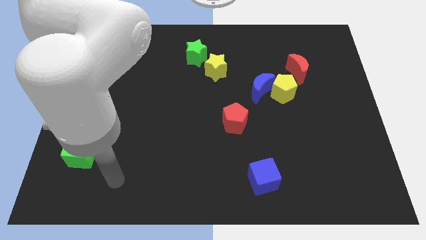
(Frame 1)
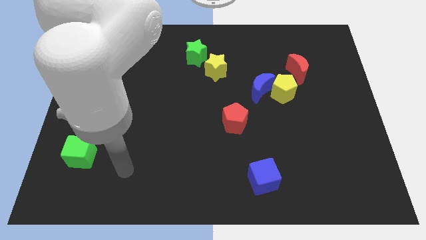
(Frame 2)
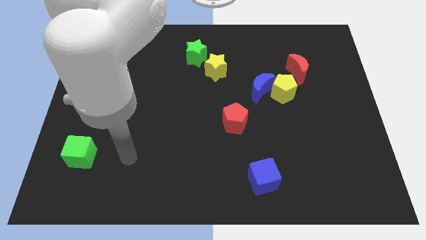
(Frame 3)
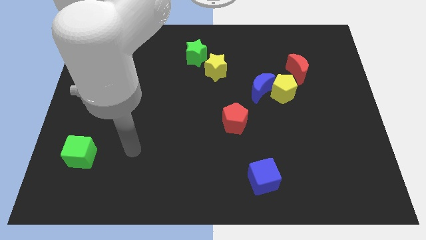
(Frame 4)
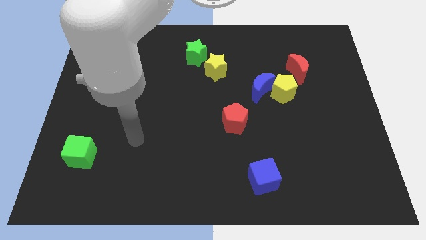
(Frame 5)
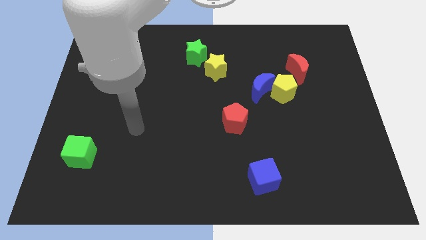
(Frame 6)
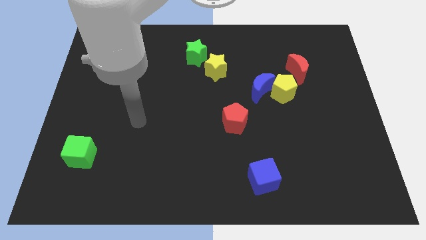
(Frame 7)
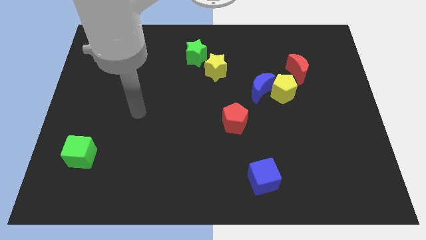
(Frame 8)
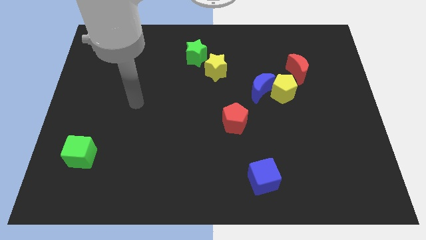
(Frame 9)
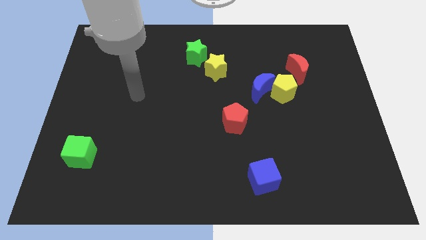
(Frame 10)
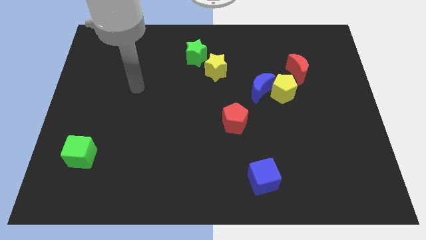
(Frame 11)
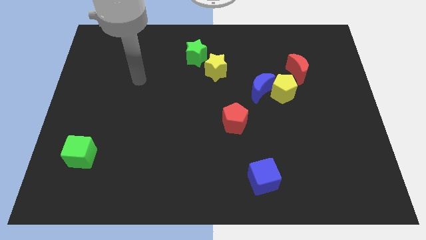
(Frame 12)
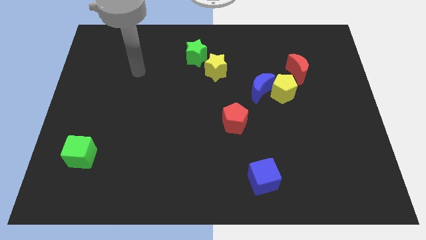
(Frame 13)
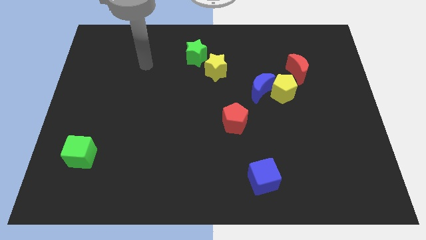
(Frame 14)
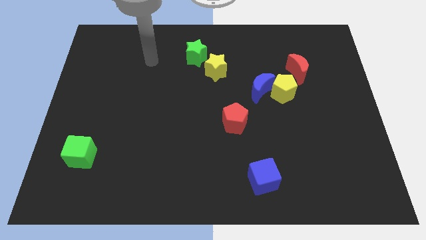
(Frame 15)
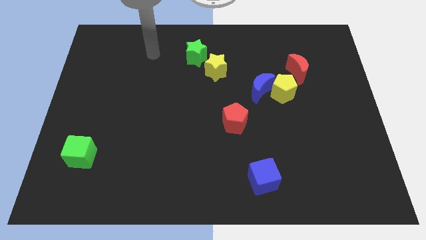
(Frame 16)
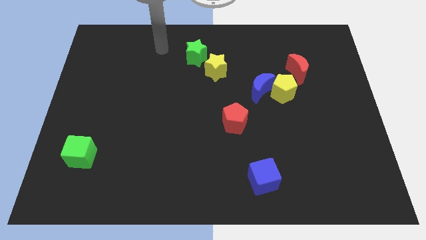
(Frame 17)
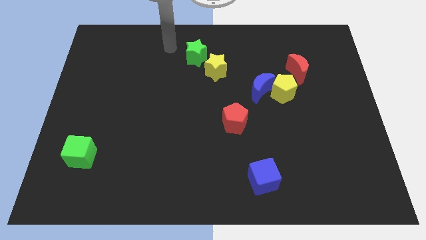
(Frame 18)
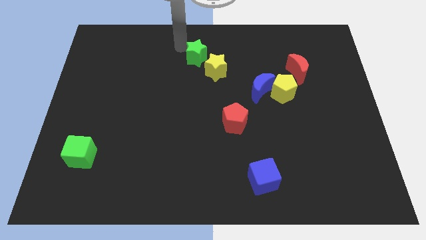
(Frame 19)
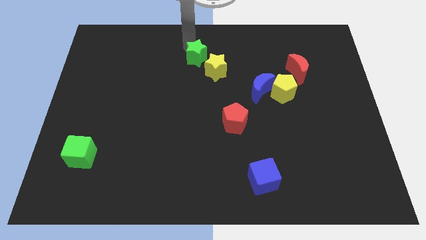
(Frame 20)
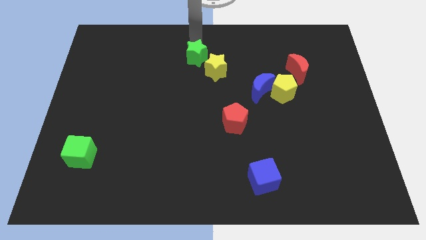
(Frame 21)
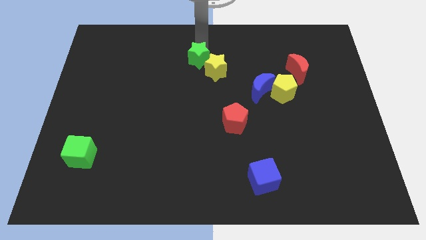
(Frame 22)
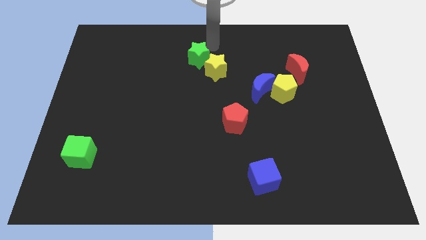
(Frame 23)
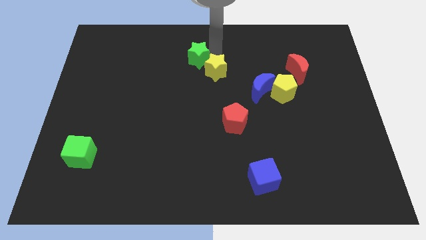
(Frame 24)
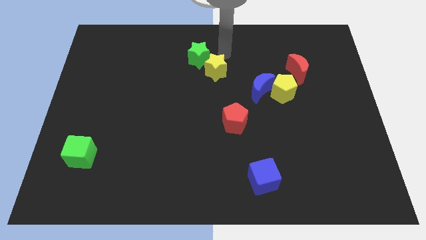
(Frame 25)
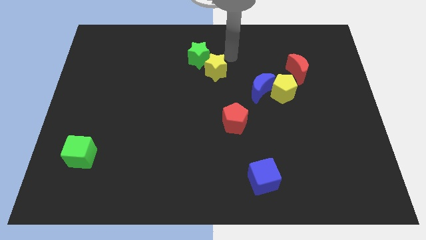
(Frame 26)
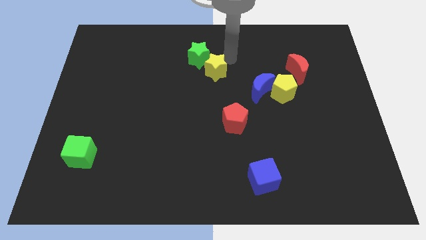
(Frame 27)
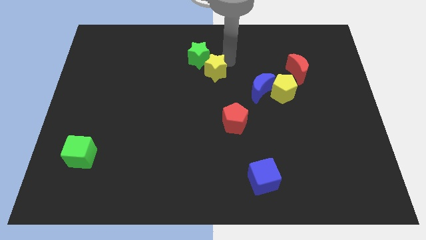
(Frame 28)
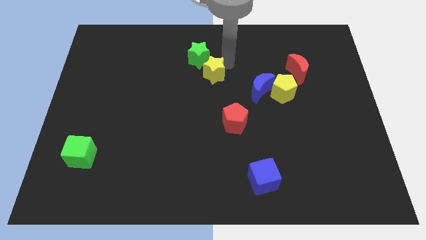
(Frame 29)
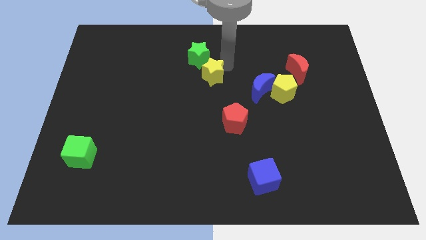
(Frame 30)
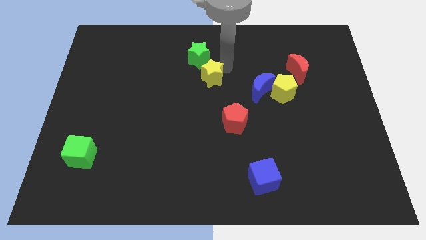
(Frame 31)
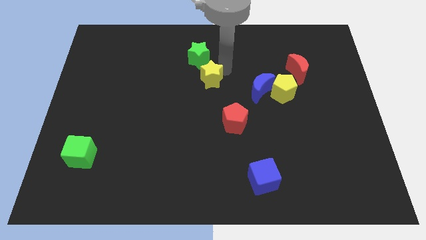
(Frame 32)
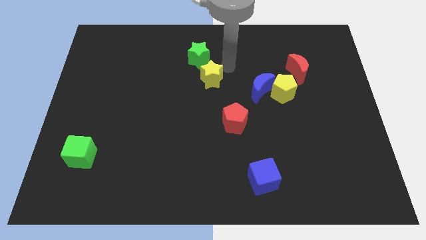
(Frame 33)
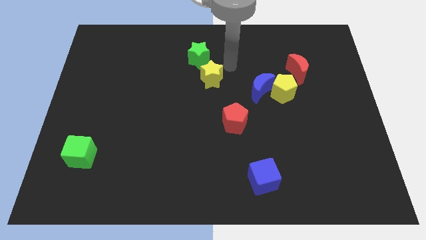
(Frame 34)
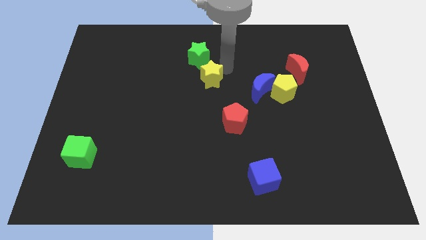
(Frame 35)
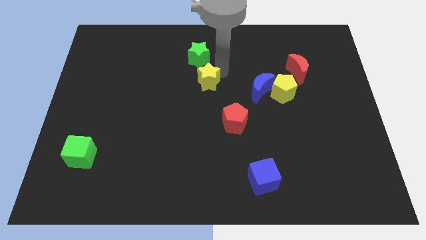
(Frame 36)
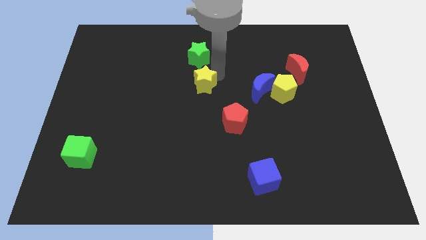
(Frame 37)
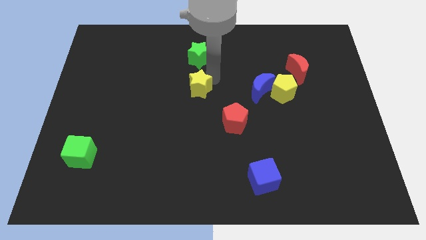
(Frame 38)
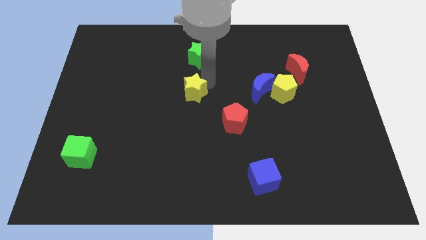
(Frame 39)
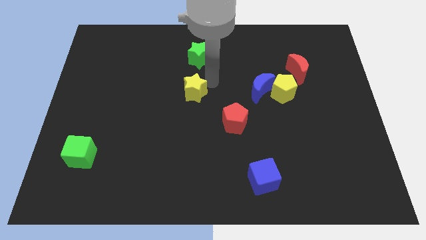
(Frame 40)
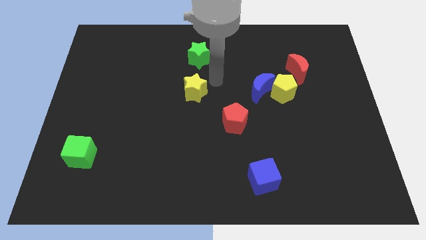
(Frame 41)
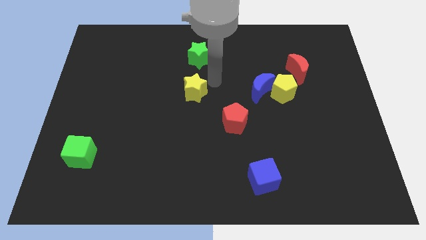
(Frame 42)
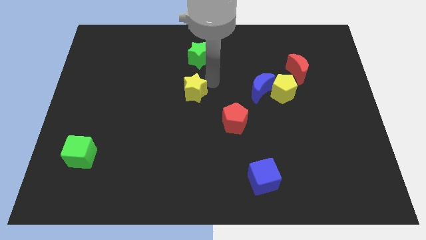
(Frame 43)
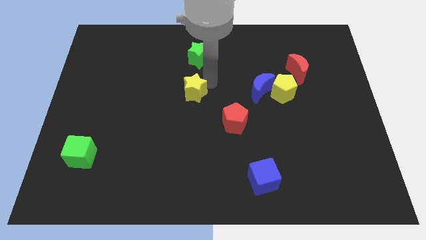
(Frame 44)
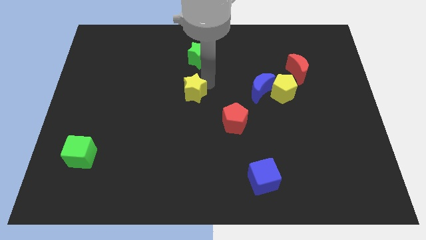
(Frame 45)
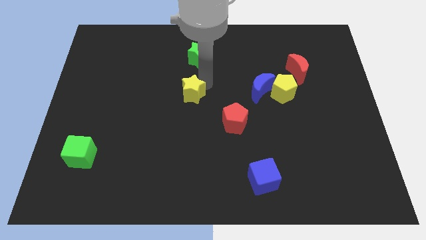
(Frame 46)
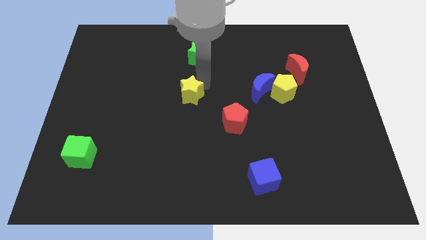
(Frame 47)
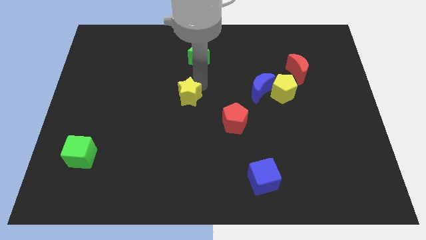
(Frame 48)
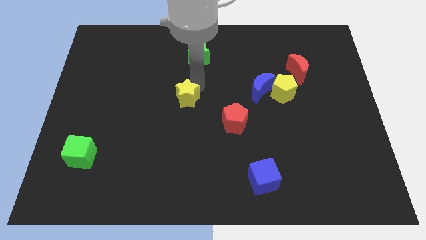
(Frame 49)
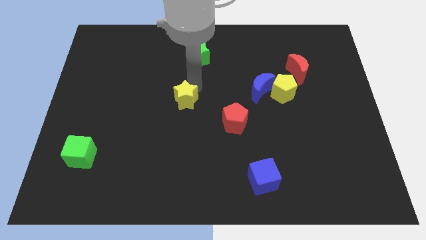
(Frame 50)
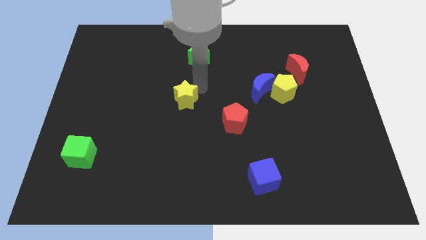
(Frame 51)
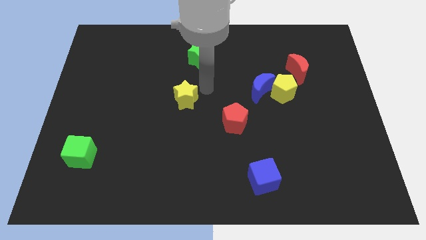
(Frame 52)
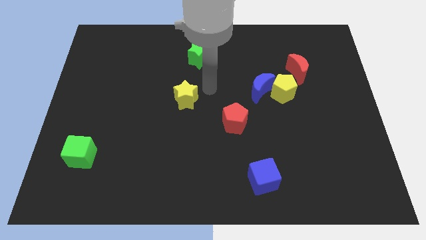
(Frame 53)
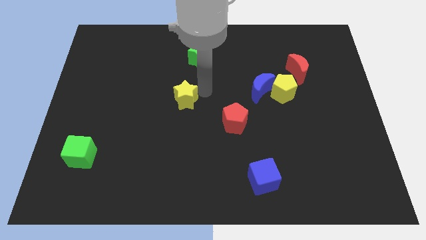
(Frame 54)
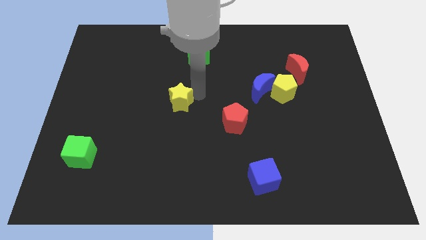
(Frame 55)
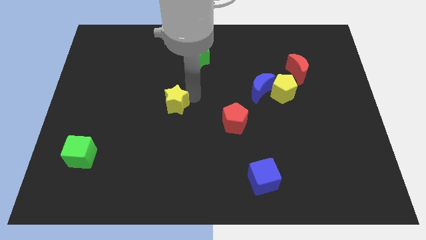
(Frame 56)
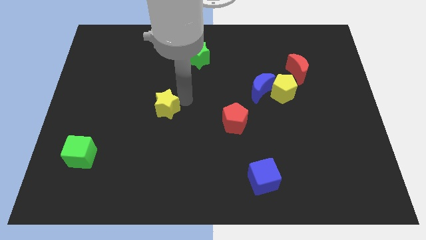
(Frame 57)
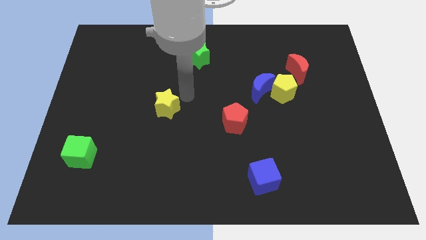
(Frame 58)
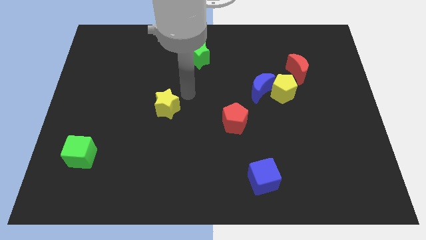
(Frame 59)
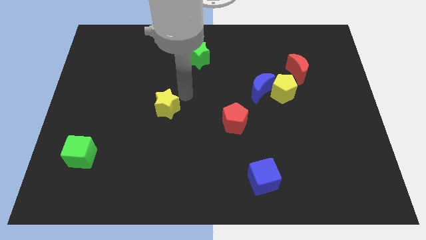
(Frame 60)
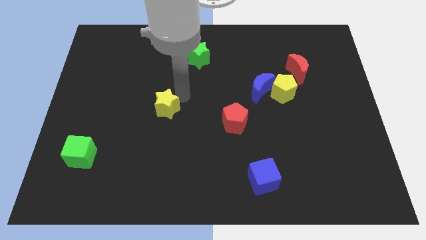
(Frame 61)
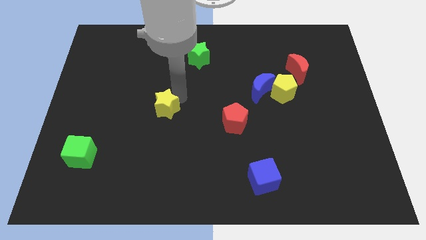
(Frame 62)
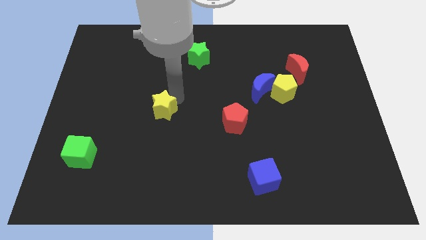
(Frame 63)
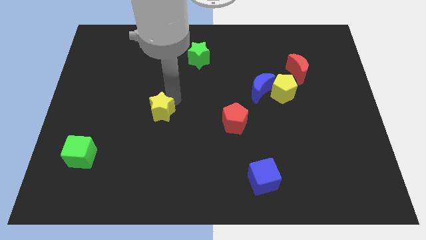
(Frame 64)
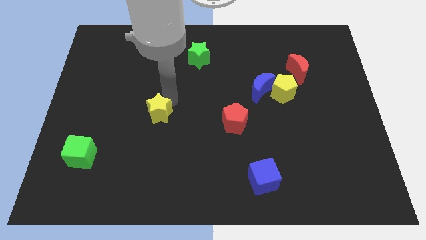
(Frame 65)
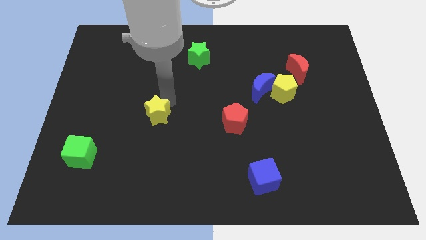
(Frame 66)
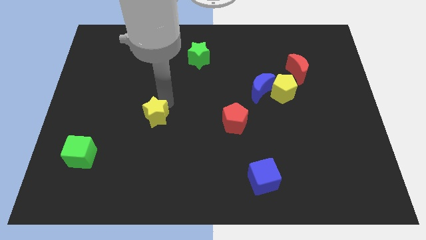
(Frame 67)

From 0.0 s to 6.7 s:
push the yellow star diagonally downwards and left

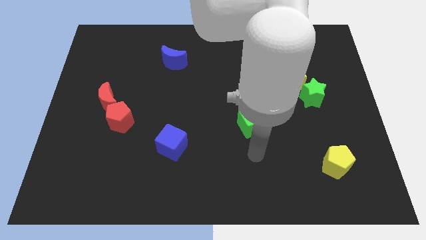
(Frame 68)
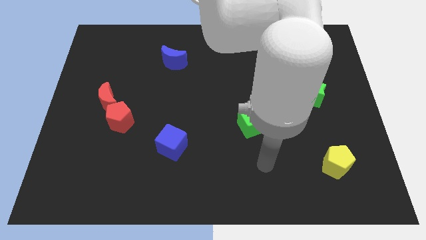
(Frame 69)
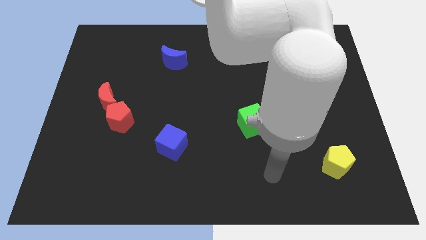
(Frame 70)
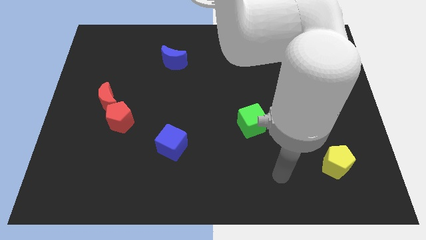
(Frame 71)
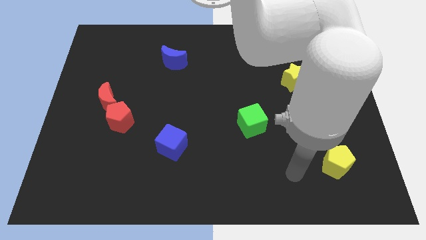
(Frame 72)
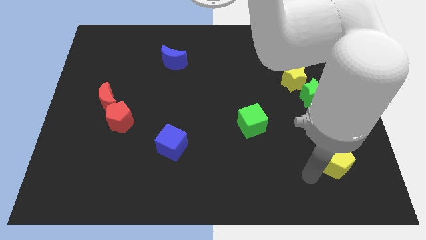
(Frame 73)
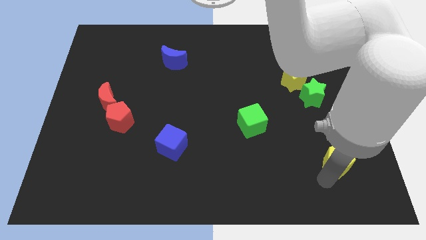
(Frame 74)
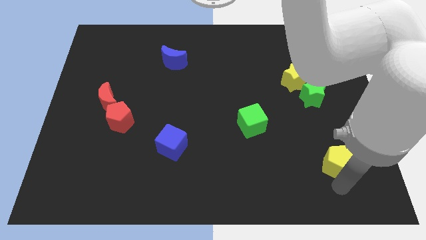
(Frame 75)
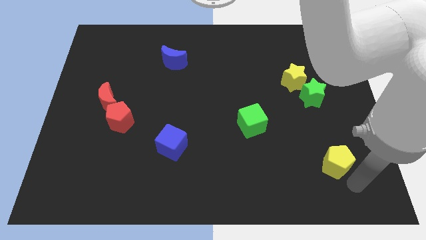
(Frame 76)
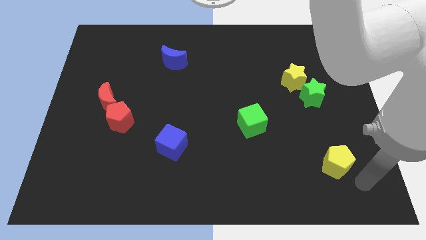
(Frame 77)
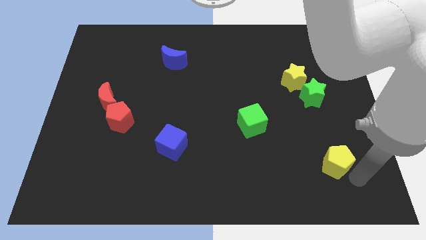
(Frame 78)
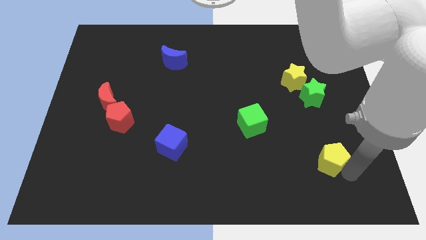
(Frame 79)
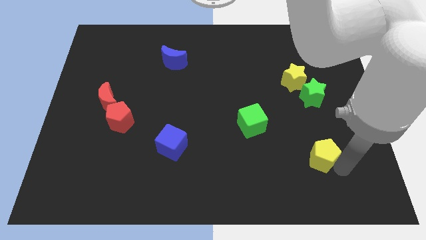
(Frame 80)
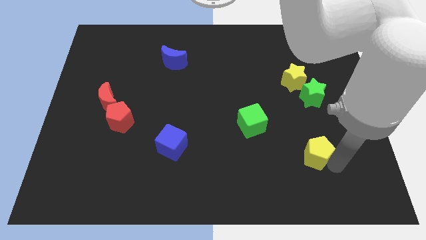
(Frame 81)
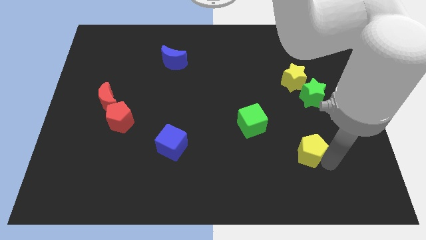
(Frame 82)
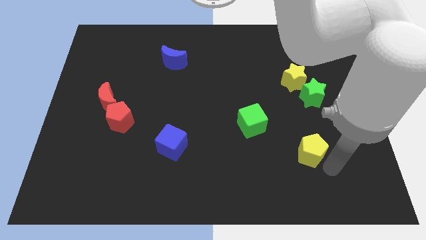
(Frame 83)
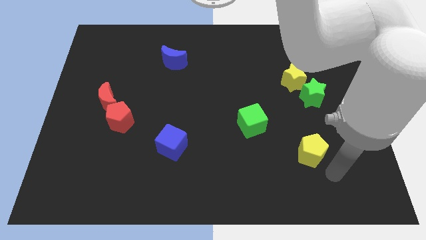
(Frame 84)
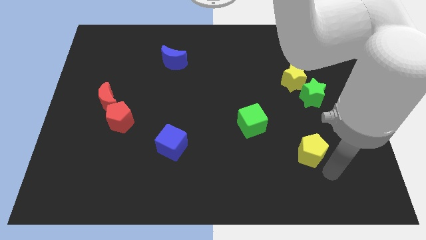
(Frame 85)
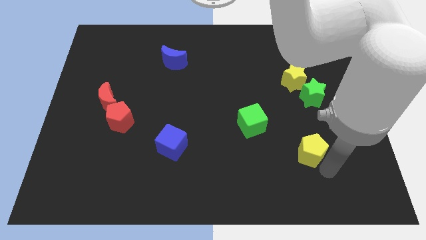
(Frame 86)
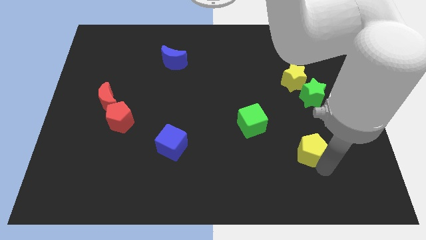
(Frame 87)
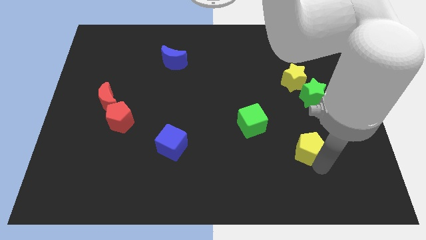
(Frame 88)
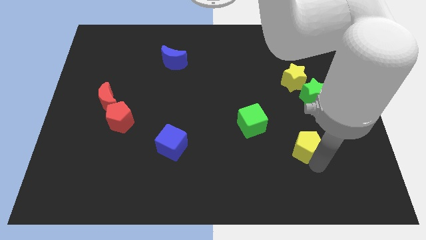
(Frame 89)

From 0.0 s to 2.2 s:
slightly slide the yellow pentagon up and left
